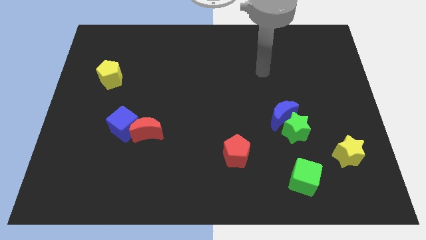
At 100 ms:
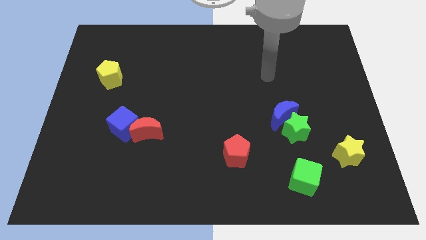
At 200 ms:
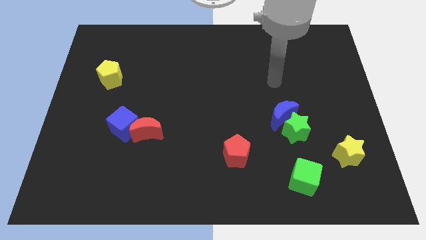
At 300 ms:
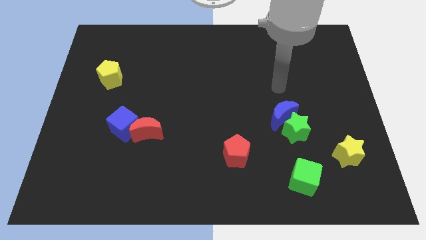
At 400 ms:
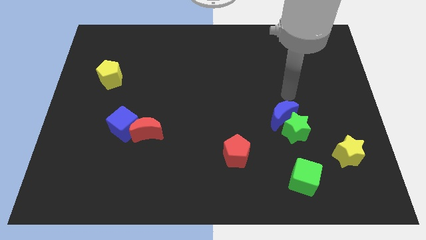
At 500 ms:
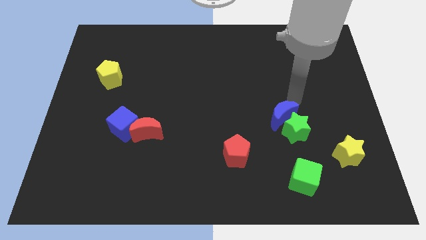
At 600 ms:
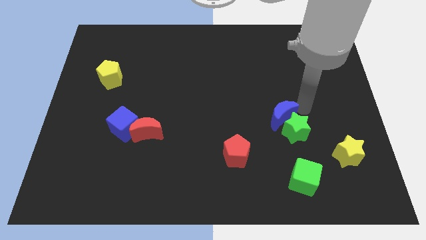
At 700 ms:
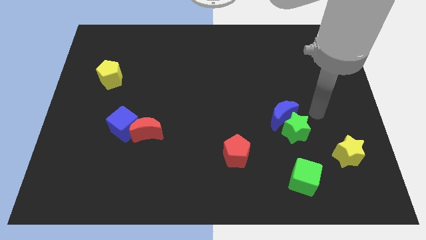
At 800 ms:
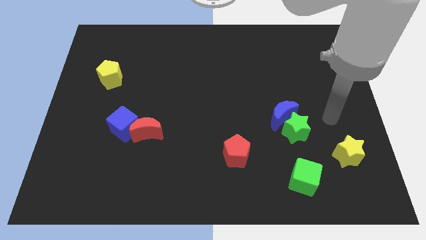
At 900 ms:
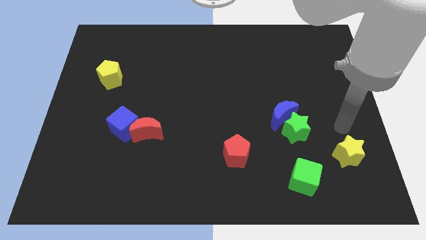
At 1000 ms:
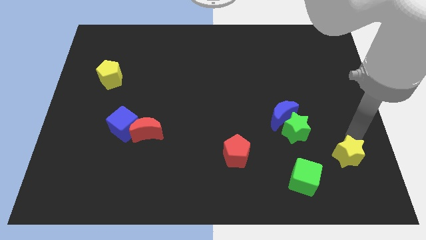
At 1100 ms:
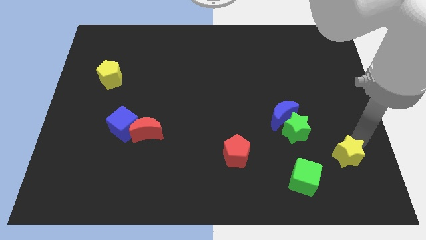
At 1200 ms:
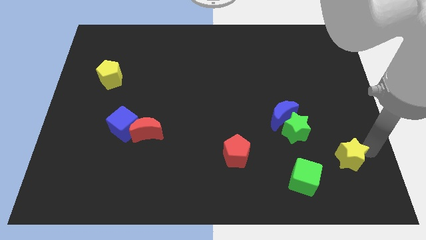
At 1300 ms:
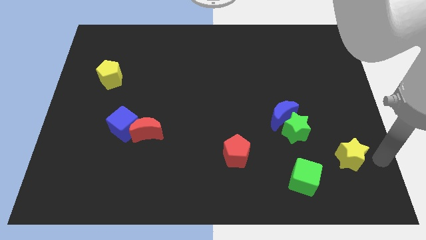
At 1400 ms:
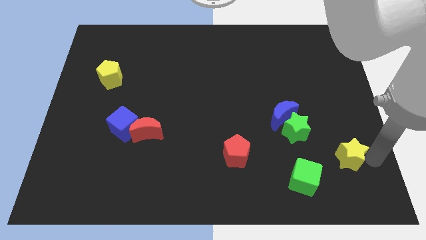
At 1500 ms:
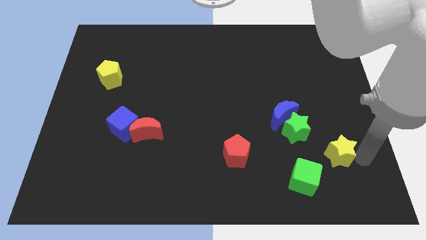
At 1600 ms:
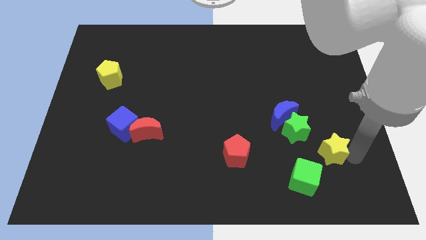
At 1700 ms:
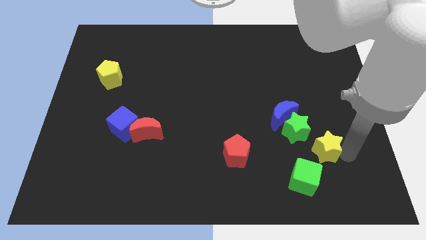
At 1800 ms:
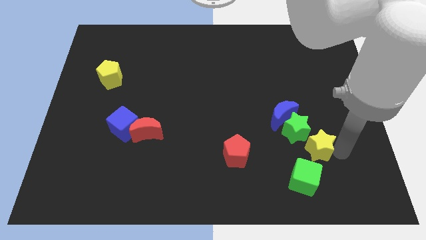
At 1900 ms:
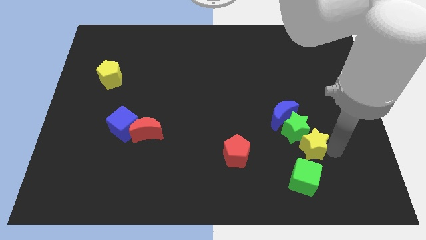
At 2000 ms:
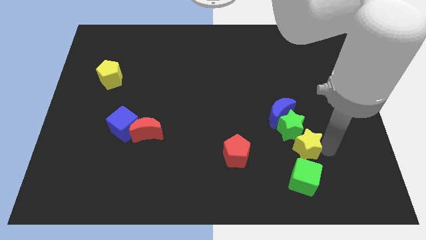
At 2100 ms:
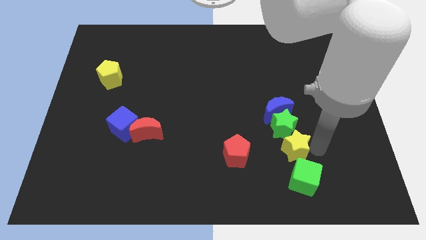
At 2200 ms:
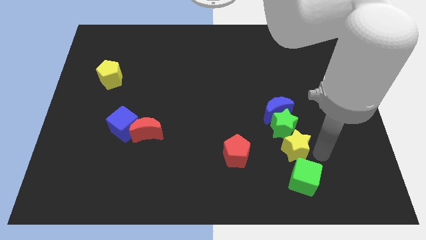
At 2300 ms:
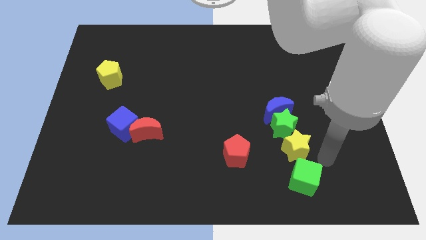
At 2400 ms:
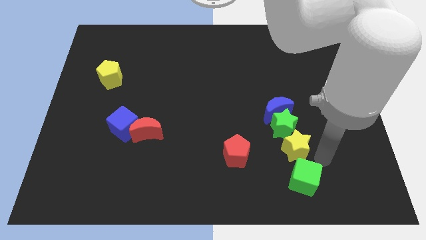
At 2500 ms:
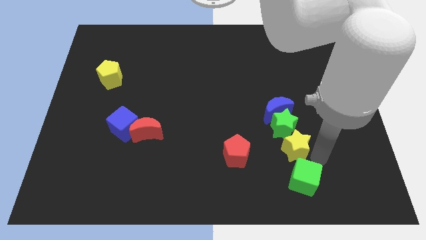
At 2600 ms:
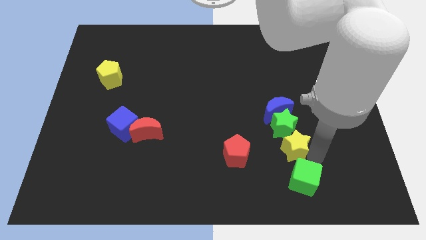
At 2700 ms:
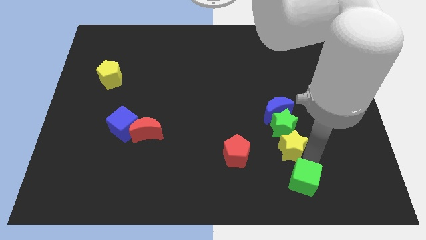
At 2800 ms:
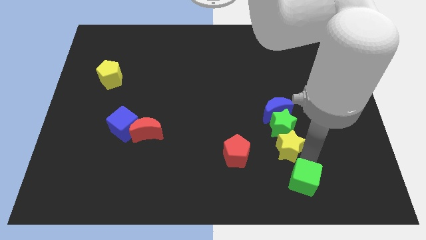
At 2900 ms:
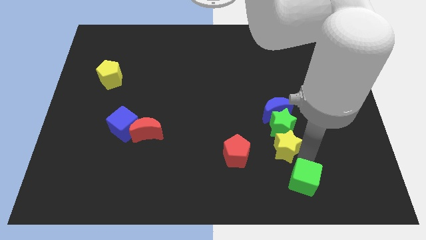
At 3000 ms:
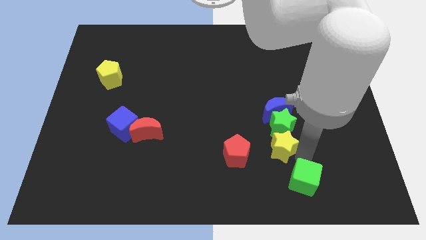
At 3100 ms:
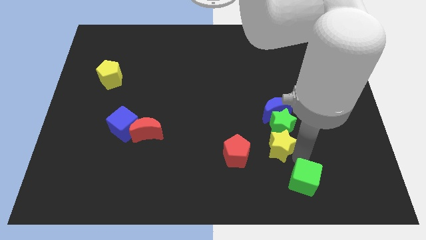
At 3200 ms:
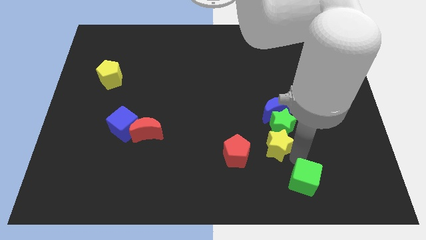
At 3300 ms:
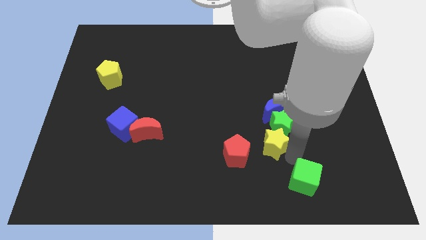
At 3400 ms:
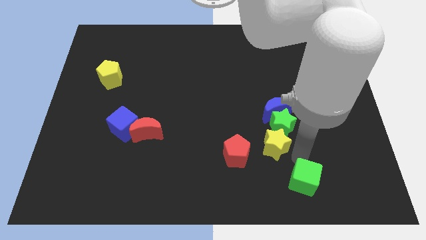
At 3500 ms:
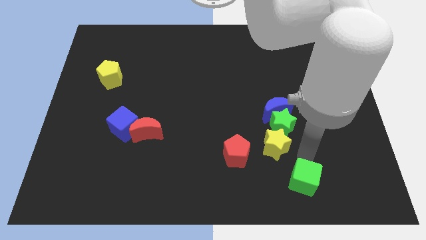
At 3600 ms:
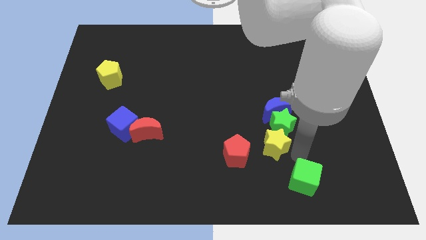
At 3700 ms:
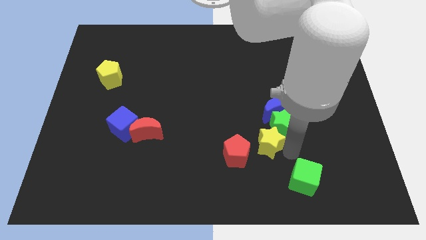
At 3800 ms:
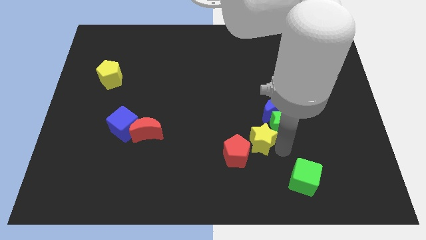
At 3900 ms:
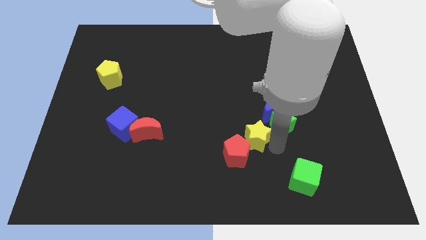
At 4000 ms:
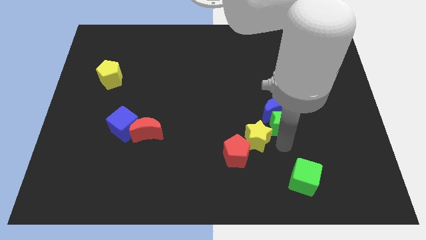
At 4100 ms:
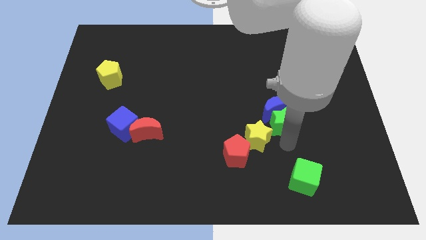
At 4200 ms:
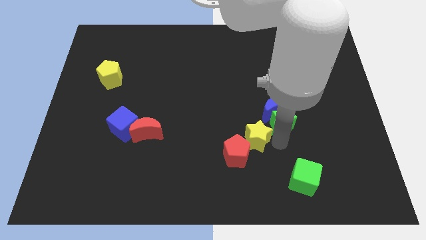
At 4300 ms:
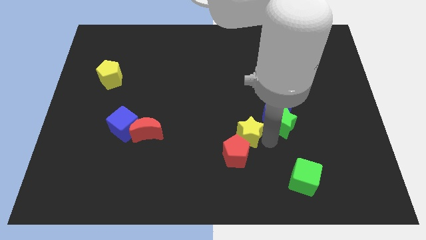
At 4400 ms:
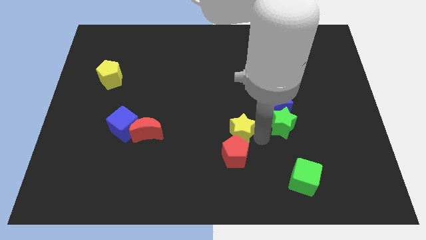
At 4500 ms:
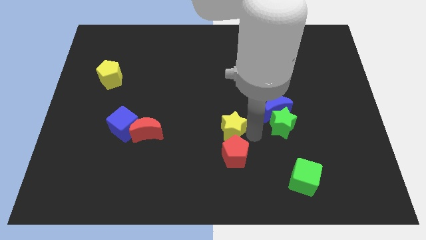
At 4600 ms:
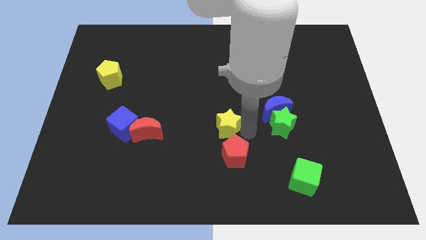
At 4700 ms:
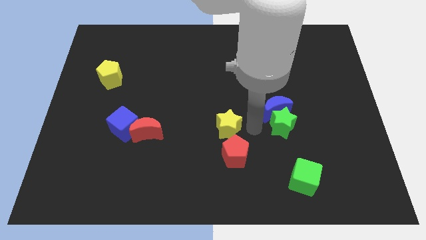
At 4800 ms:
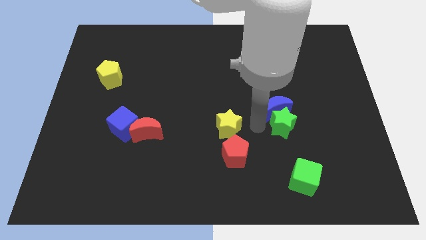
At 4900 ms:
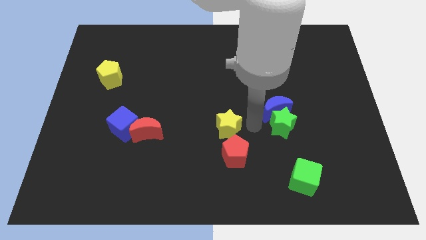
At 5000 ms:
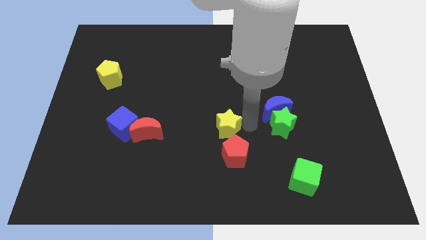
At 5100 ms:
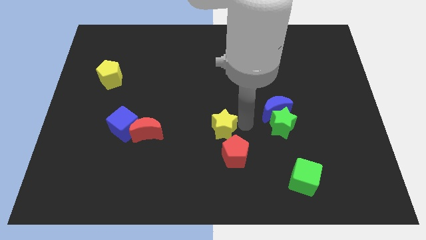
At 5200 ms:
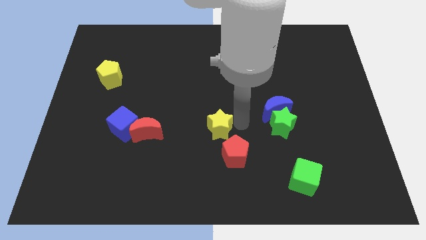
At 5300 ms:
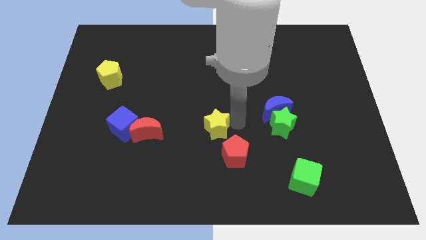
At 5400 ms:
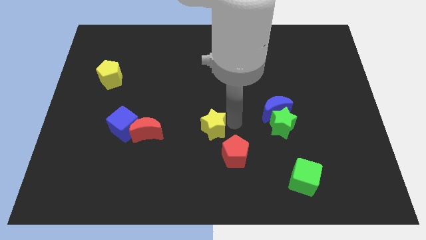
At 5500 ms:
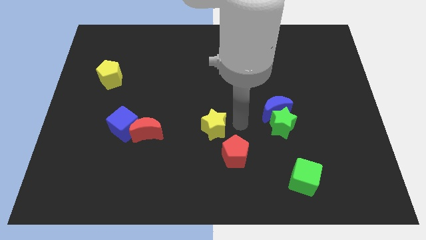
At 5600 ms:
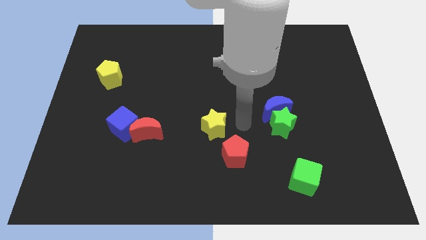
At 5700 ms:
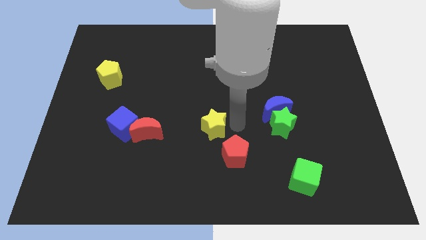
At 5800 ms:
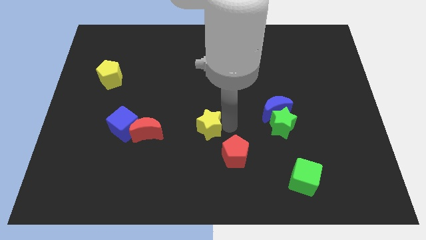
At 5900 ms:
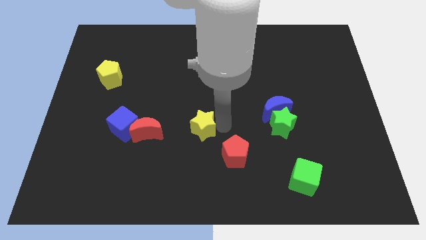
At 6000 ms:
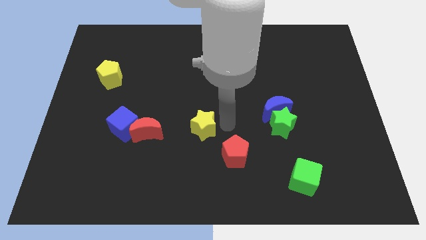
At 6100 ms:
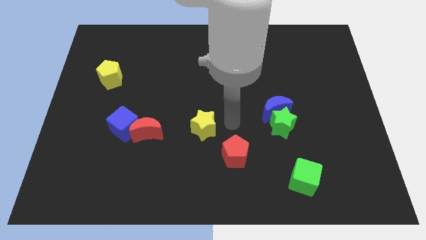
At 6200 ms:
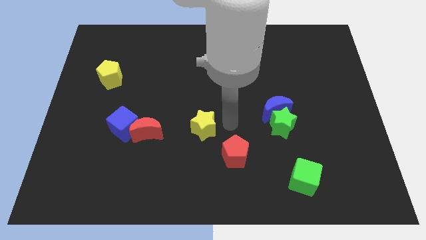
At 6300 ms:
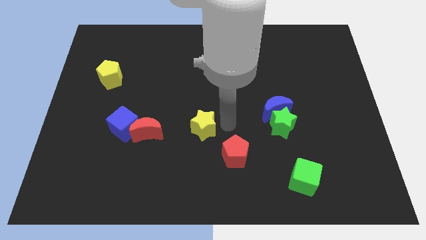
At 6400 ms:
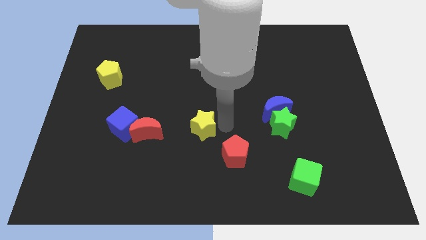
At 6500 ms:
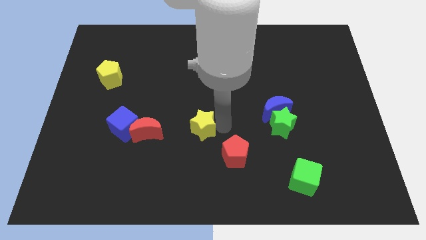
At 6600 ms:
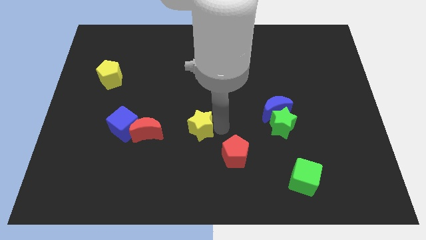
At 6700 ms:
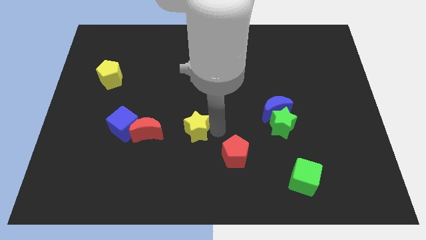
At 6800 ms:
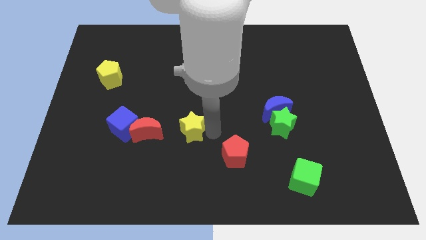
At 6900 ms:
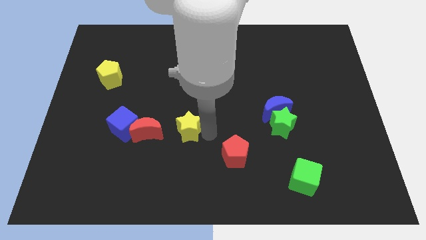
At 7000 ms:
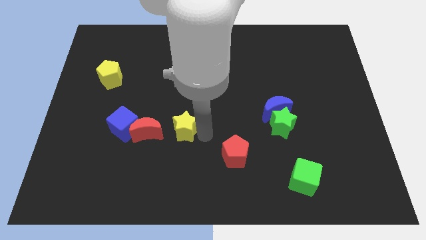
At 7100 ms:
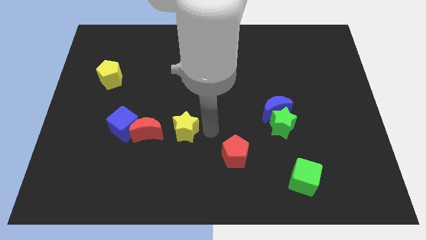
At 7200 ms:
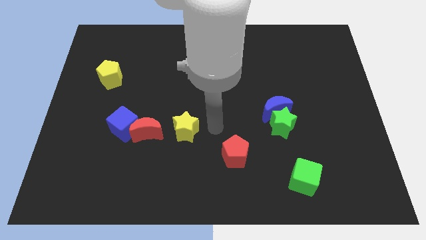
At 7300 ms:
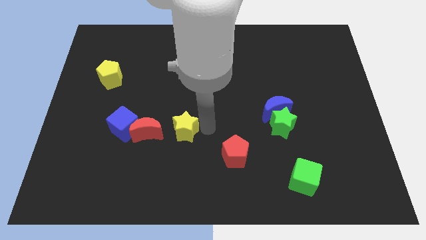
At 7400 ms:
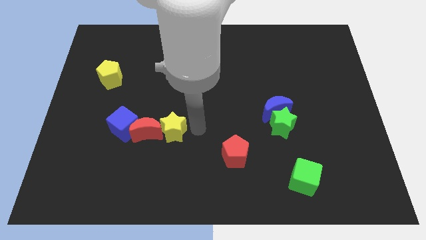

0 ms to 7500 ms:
slide the yellow star towards the red moon
